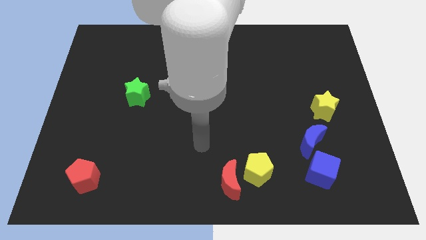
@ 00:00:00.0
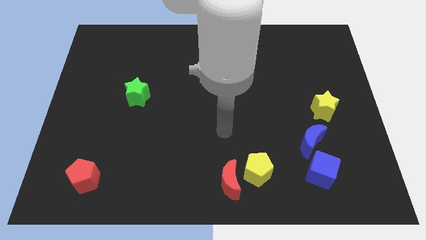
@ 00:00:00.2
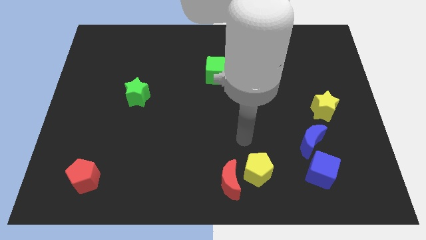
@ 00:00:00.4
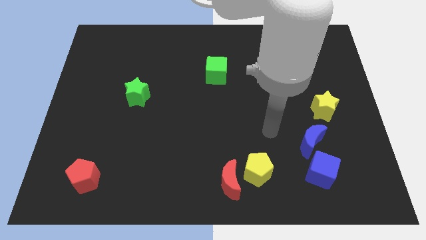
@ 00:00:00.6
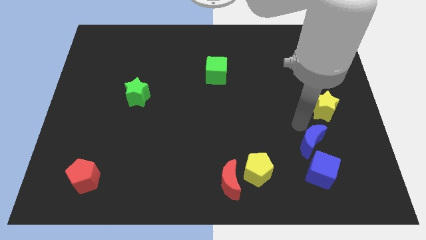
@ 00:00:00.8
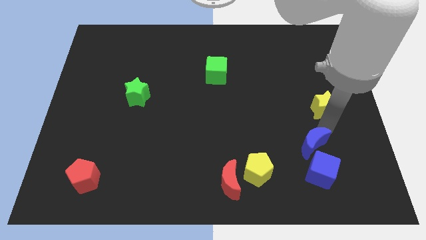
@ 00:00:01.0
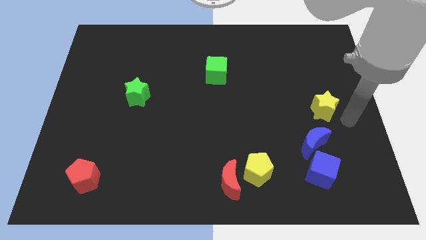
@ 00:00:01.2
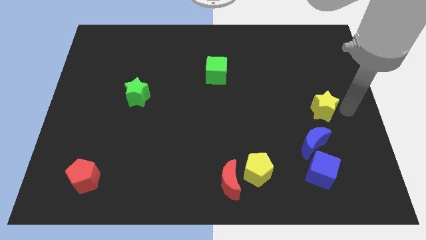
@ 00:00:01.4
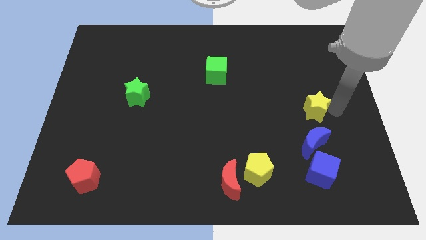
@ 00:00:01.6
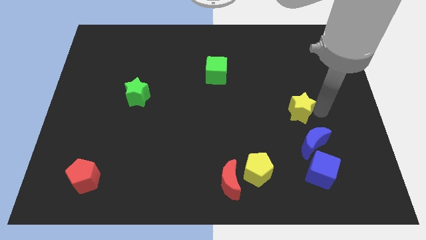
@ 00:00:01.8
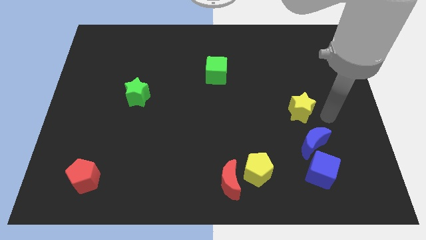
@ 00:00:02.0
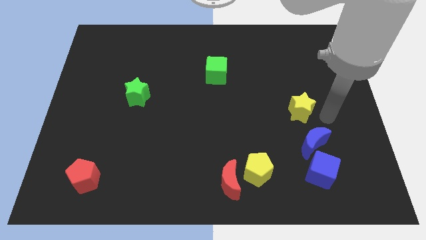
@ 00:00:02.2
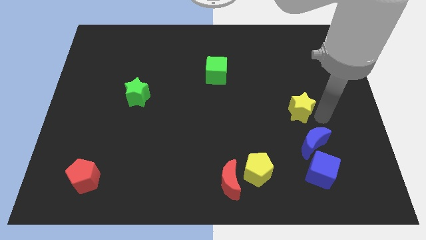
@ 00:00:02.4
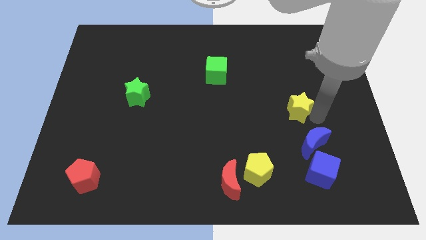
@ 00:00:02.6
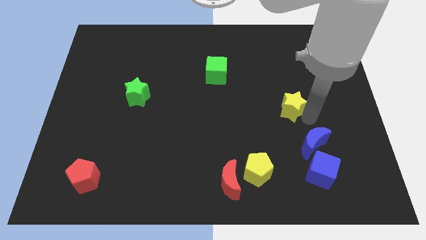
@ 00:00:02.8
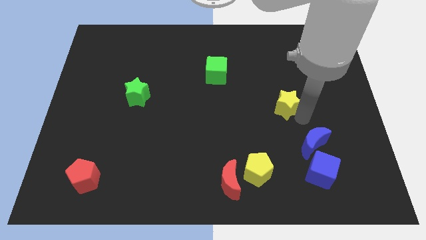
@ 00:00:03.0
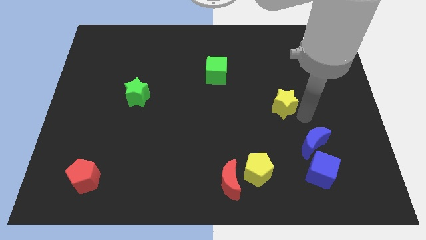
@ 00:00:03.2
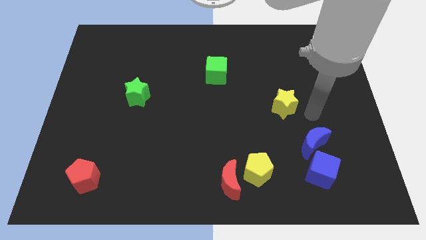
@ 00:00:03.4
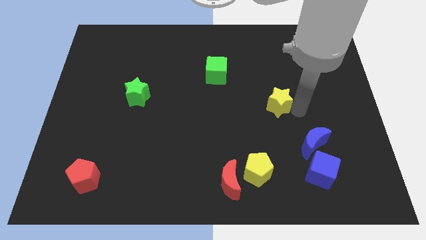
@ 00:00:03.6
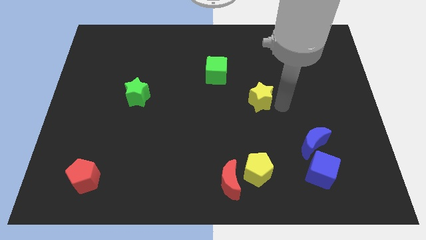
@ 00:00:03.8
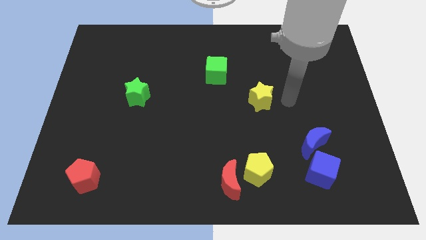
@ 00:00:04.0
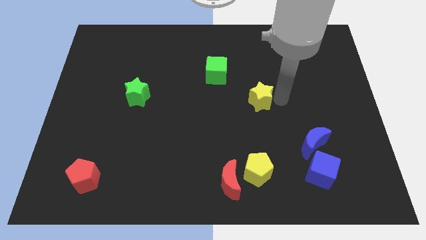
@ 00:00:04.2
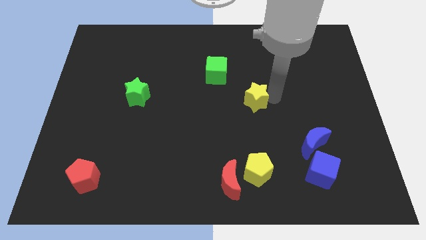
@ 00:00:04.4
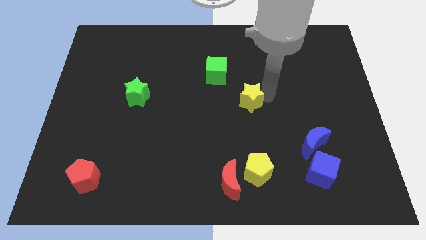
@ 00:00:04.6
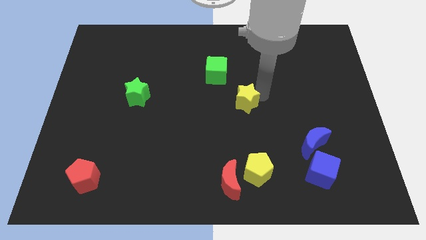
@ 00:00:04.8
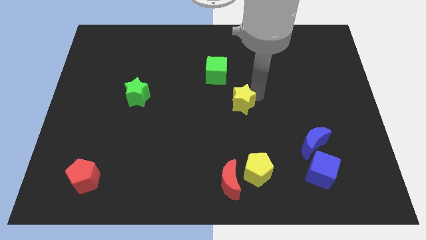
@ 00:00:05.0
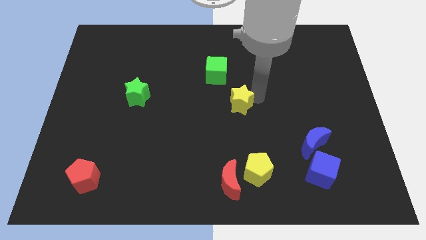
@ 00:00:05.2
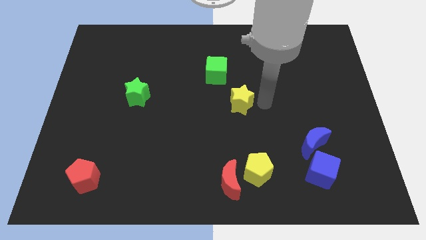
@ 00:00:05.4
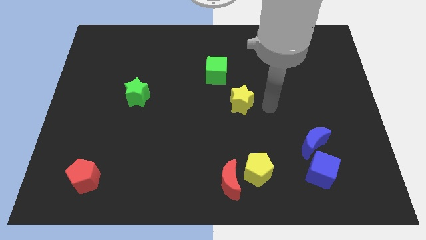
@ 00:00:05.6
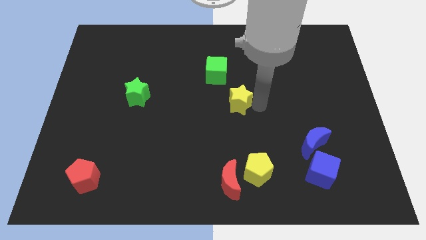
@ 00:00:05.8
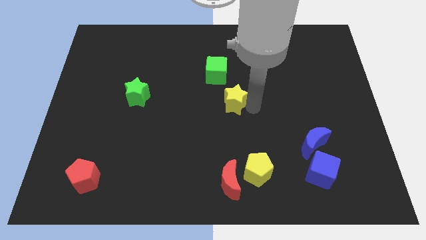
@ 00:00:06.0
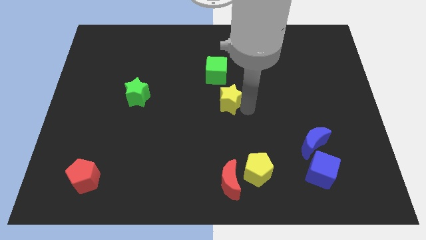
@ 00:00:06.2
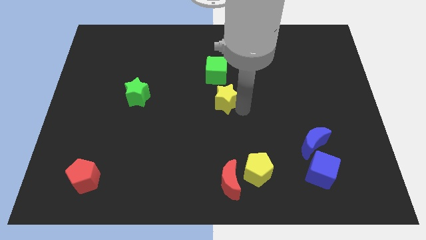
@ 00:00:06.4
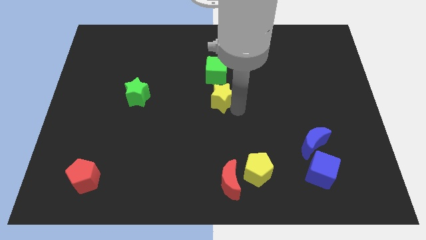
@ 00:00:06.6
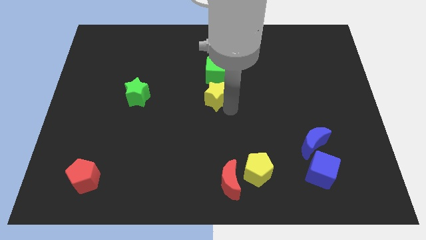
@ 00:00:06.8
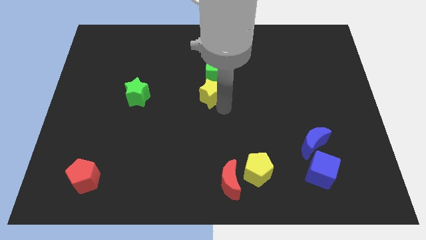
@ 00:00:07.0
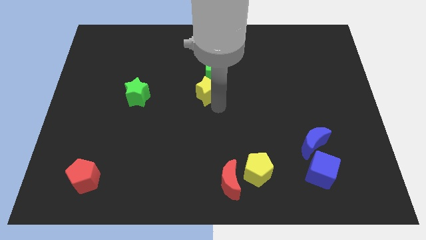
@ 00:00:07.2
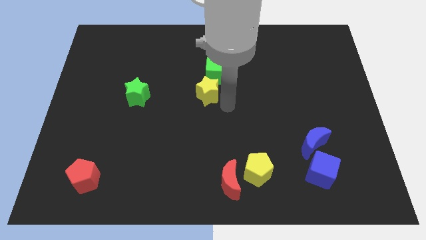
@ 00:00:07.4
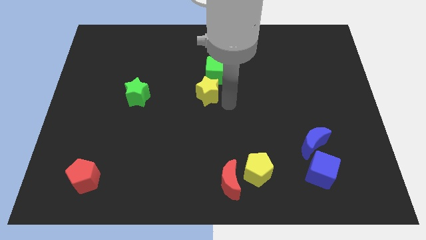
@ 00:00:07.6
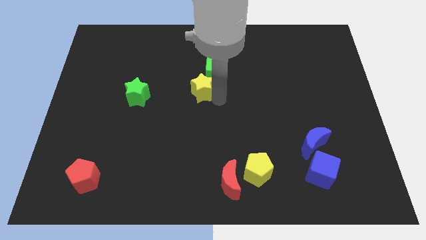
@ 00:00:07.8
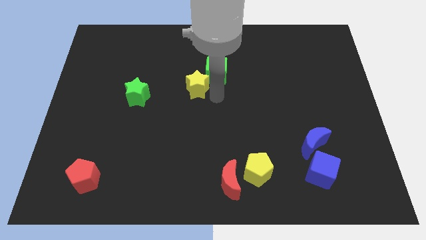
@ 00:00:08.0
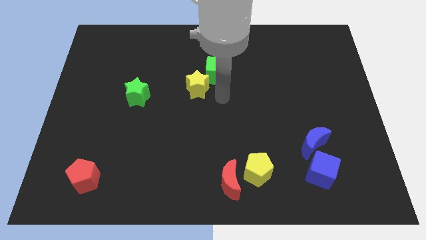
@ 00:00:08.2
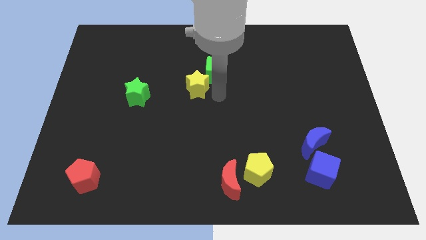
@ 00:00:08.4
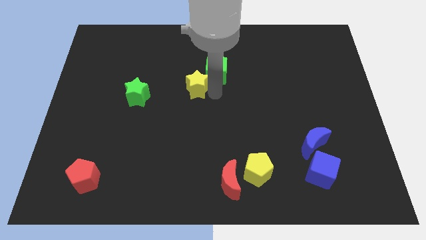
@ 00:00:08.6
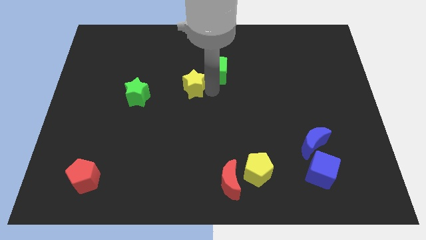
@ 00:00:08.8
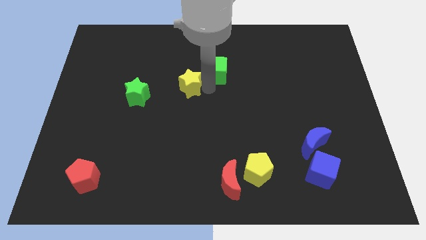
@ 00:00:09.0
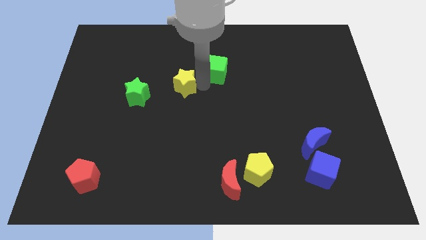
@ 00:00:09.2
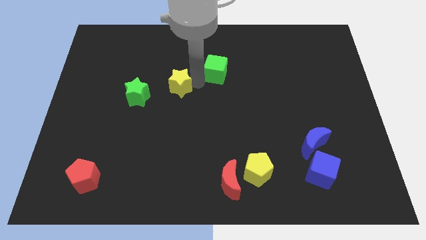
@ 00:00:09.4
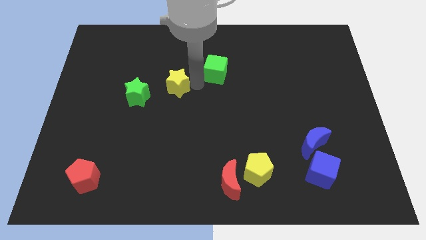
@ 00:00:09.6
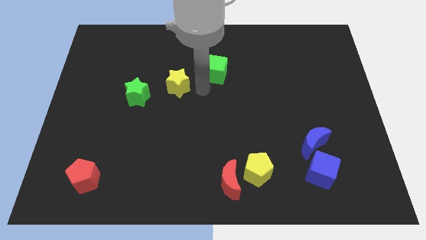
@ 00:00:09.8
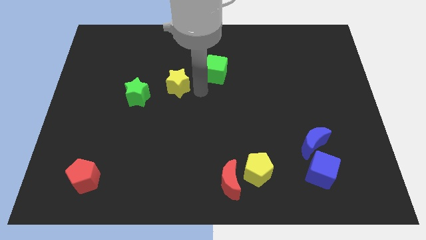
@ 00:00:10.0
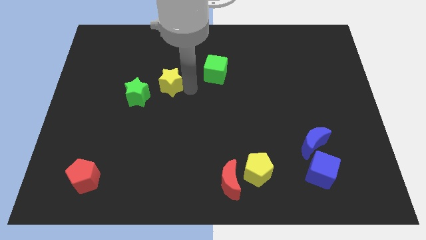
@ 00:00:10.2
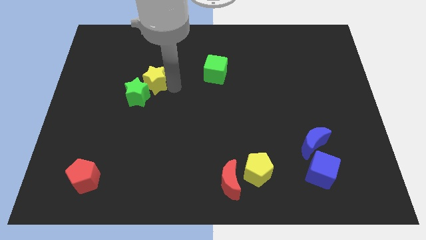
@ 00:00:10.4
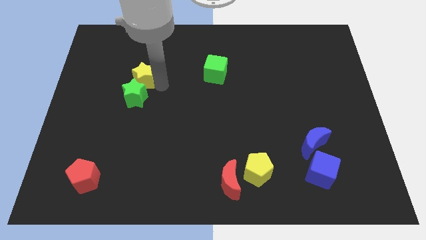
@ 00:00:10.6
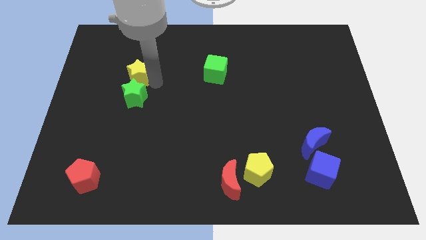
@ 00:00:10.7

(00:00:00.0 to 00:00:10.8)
put the yellow star diagonally up and to the left of the green star

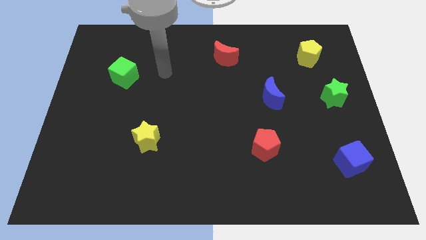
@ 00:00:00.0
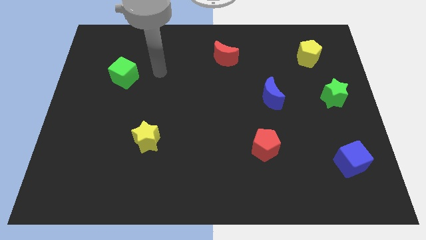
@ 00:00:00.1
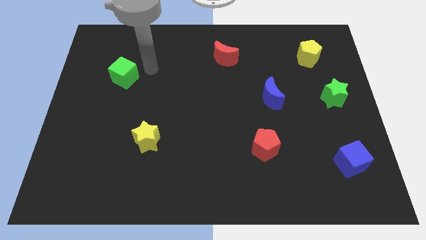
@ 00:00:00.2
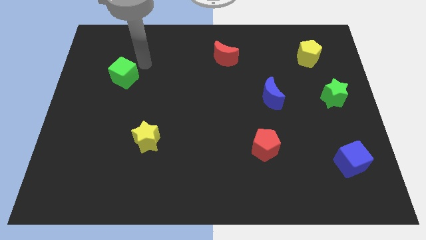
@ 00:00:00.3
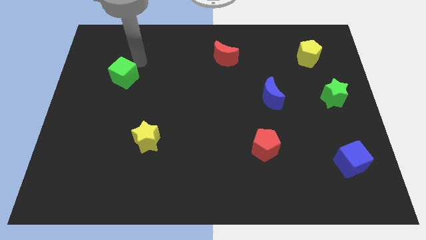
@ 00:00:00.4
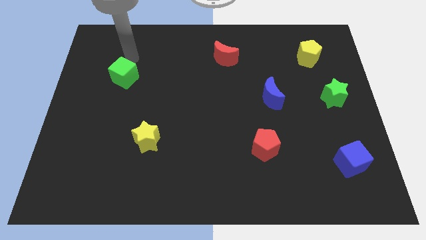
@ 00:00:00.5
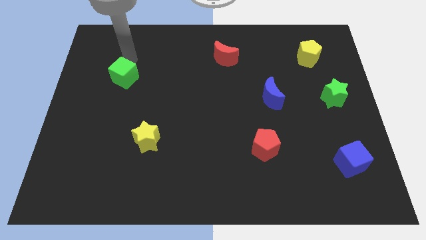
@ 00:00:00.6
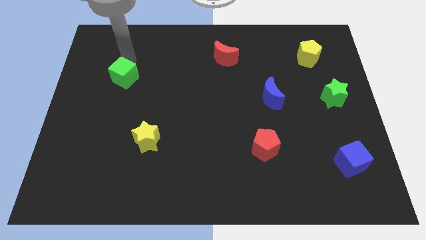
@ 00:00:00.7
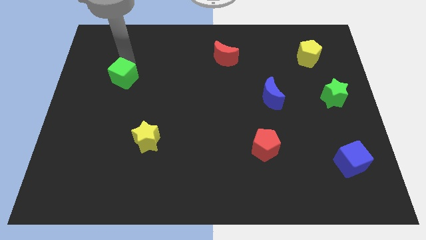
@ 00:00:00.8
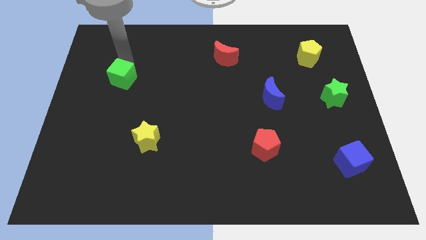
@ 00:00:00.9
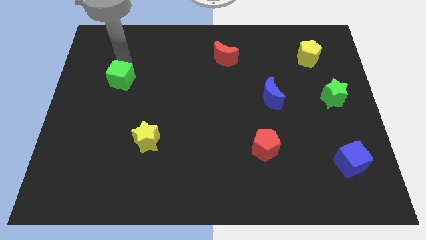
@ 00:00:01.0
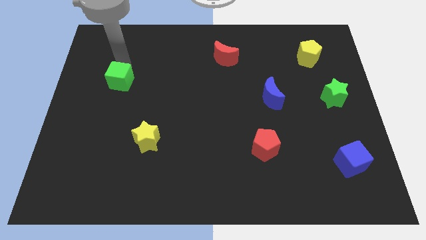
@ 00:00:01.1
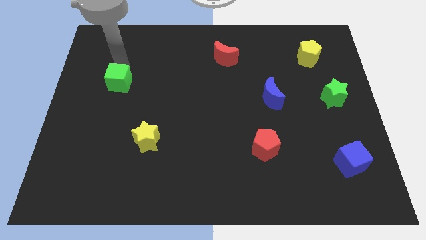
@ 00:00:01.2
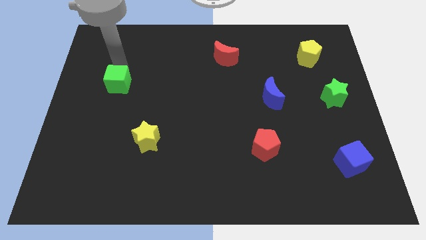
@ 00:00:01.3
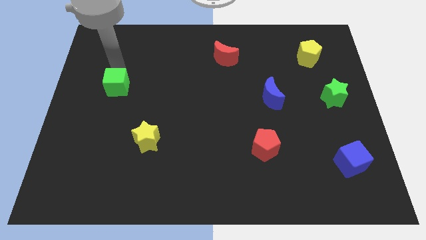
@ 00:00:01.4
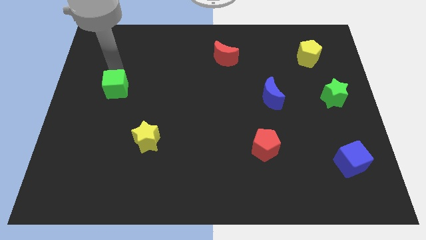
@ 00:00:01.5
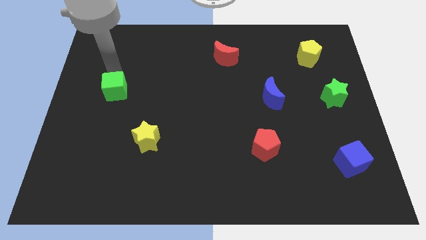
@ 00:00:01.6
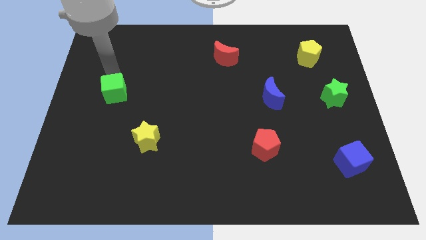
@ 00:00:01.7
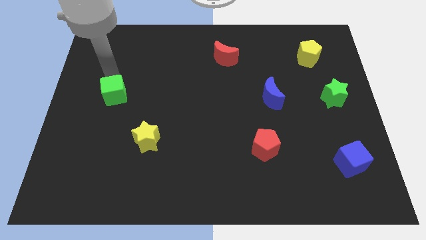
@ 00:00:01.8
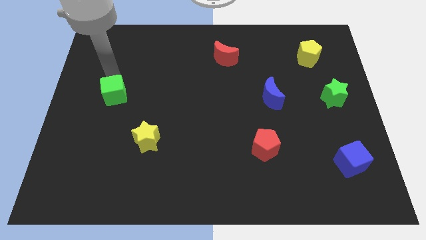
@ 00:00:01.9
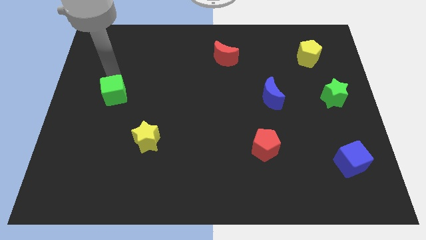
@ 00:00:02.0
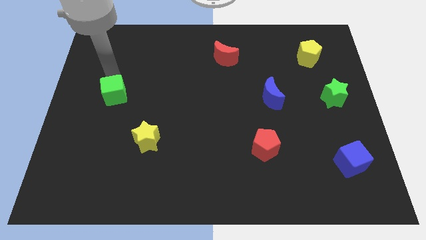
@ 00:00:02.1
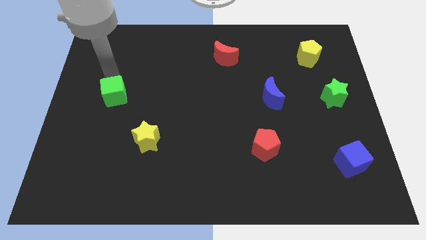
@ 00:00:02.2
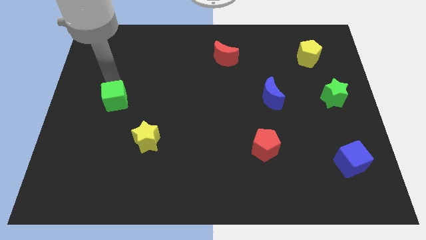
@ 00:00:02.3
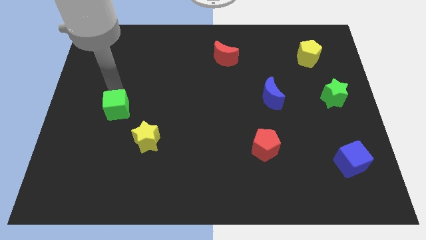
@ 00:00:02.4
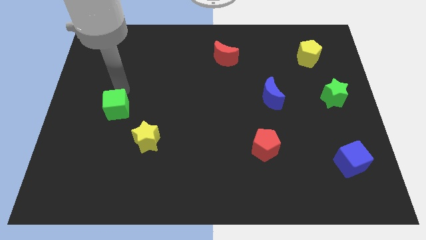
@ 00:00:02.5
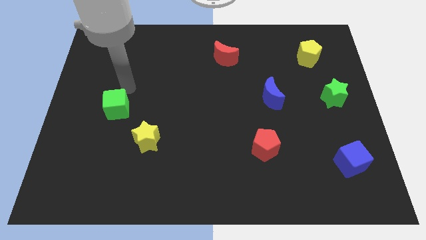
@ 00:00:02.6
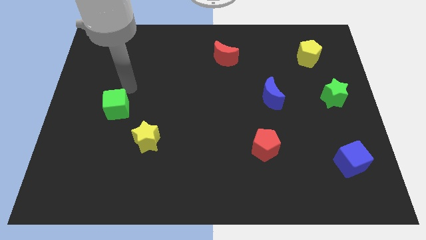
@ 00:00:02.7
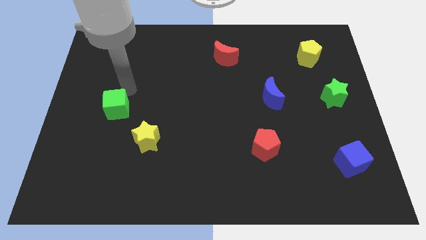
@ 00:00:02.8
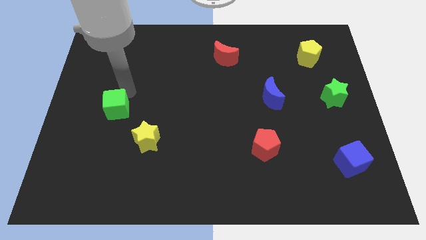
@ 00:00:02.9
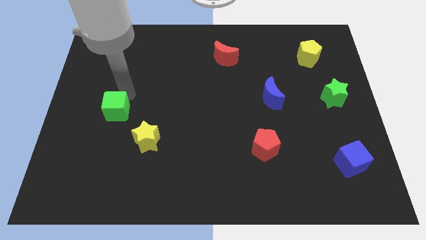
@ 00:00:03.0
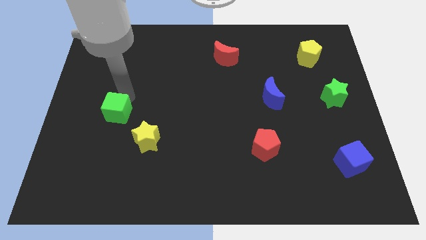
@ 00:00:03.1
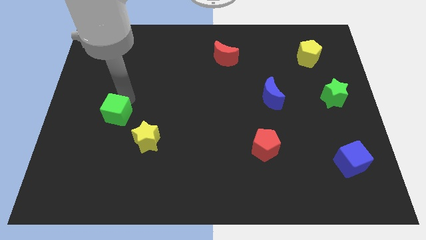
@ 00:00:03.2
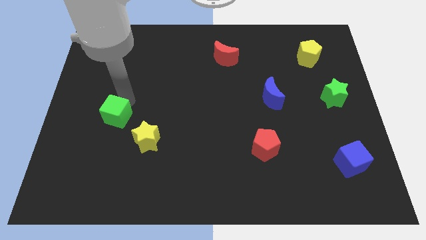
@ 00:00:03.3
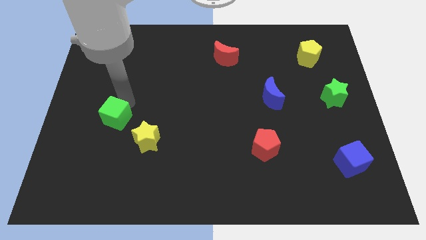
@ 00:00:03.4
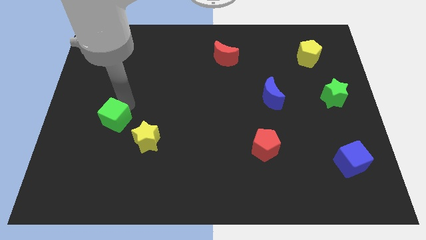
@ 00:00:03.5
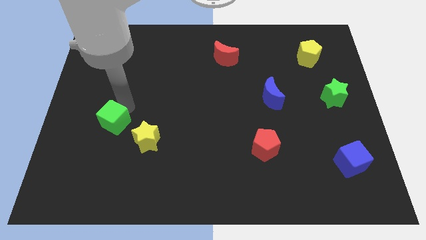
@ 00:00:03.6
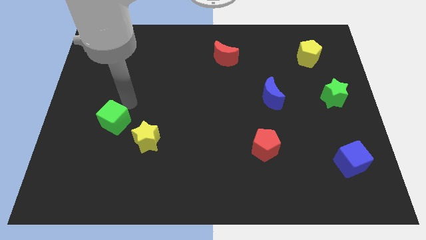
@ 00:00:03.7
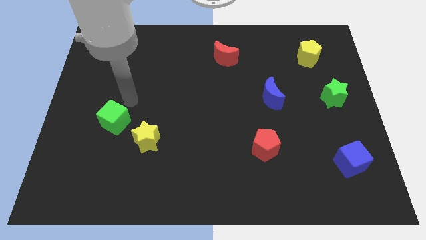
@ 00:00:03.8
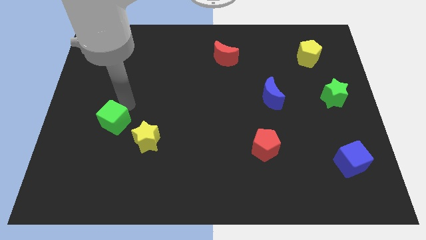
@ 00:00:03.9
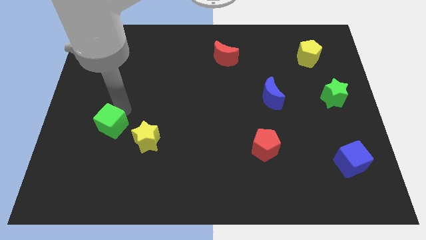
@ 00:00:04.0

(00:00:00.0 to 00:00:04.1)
push the green cube left of the yellow star
